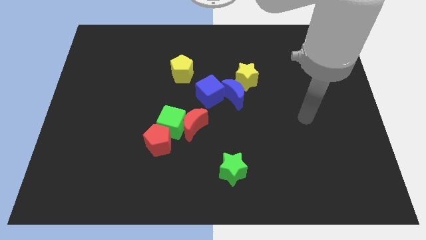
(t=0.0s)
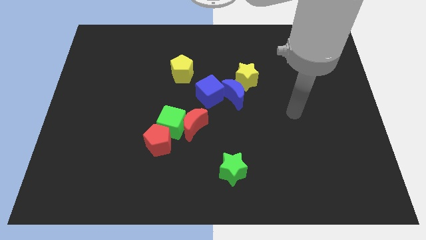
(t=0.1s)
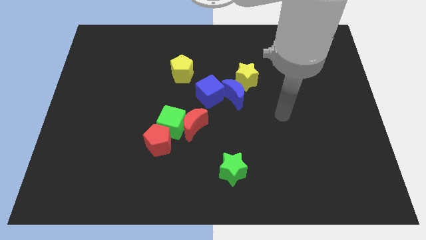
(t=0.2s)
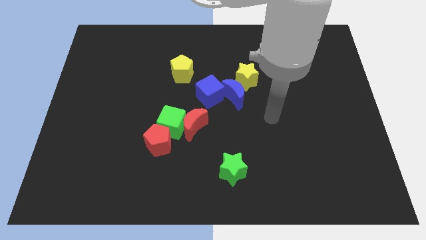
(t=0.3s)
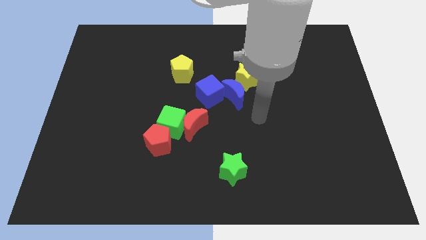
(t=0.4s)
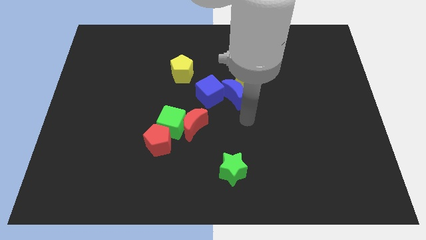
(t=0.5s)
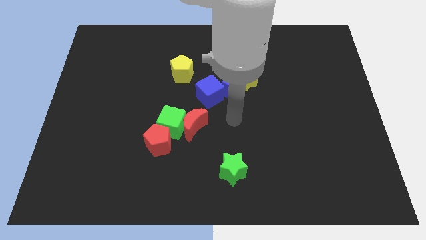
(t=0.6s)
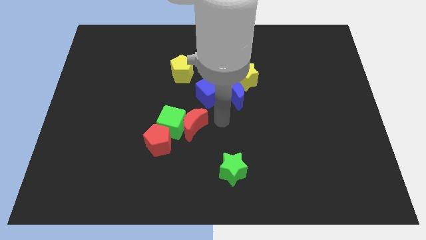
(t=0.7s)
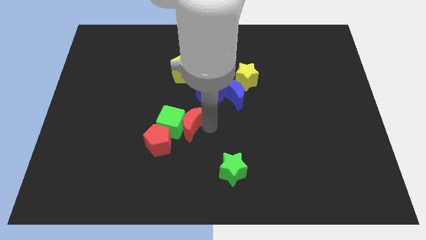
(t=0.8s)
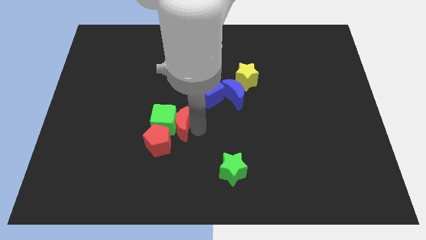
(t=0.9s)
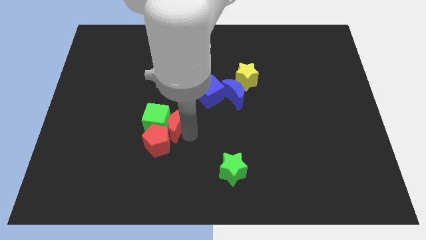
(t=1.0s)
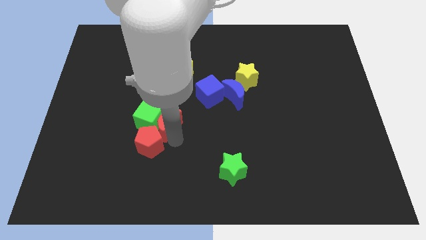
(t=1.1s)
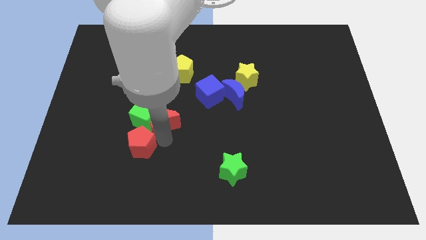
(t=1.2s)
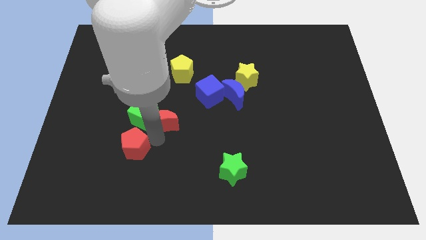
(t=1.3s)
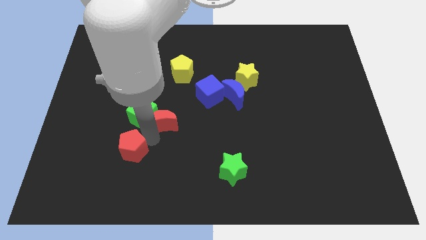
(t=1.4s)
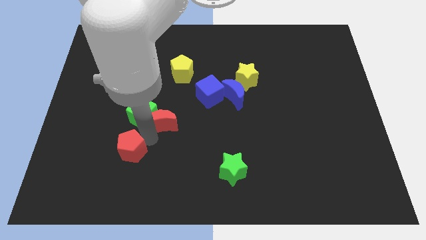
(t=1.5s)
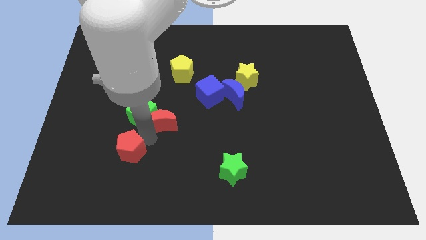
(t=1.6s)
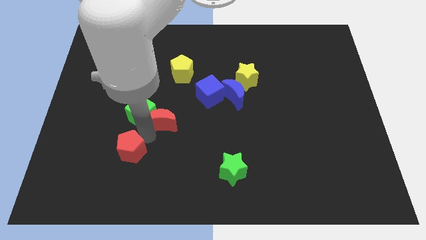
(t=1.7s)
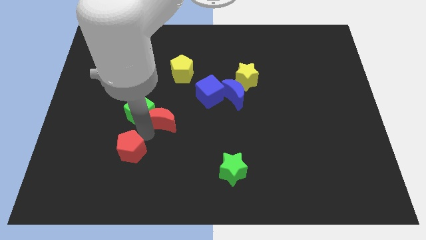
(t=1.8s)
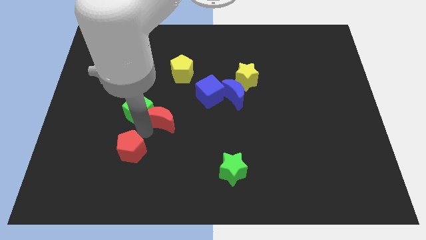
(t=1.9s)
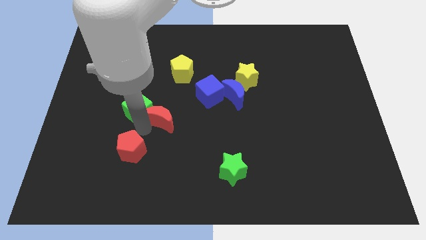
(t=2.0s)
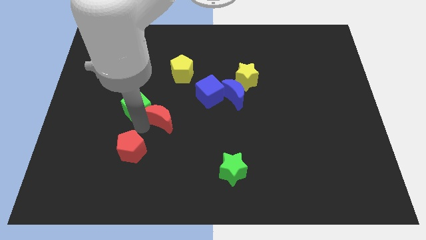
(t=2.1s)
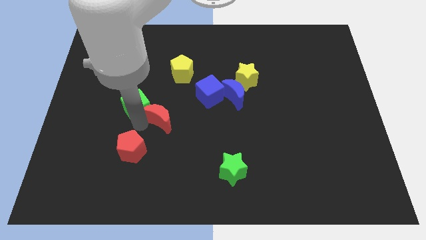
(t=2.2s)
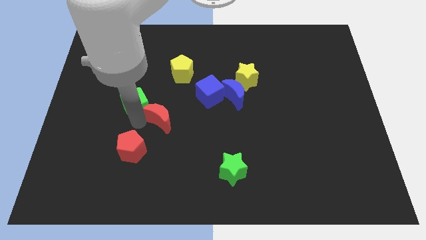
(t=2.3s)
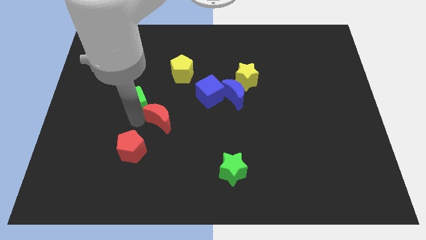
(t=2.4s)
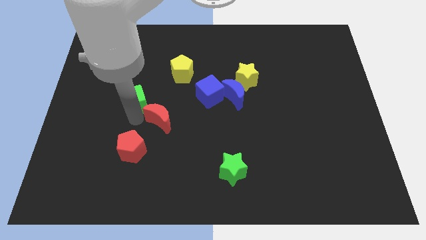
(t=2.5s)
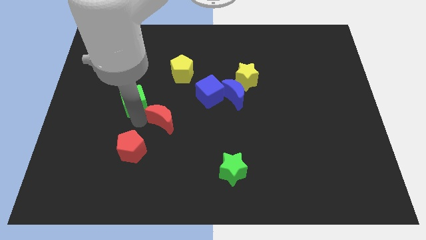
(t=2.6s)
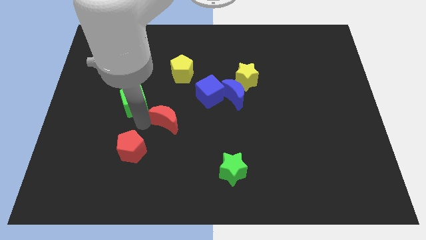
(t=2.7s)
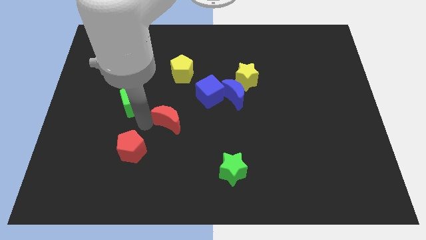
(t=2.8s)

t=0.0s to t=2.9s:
pull the green cube apart from the red moon and red pentagon

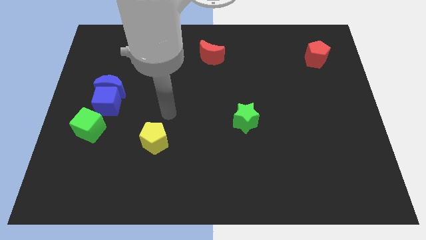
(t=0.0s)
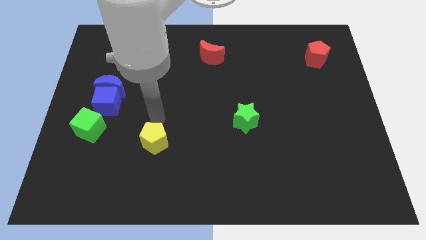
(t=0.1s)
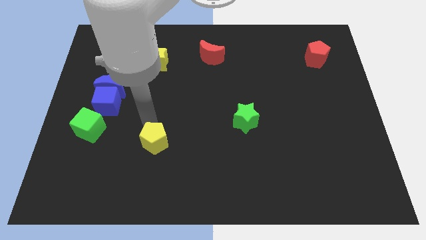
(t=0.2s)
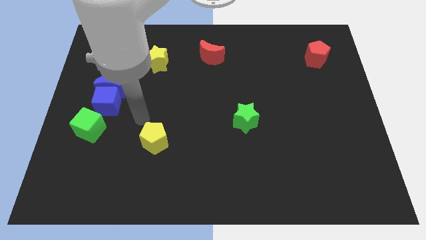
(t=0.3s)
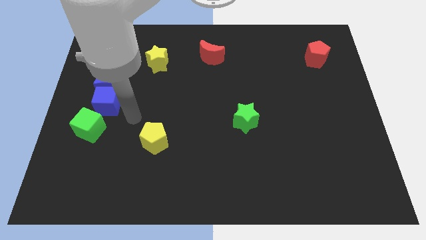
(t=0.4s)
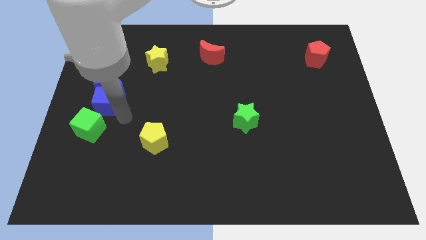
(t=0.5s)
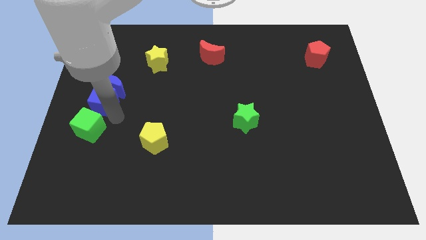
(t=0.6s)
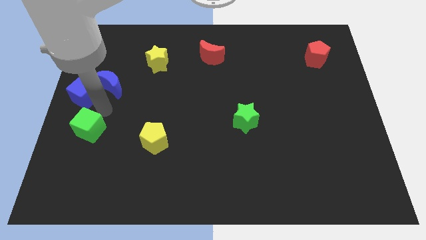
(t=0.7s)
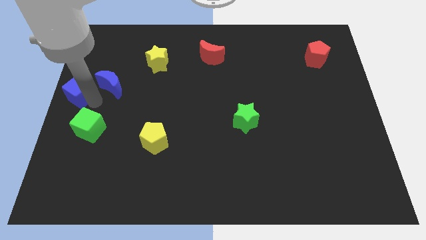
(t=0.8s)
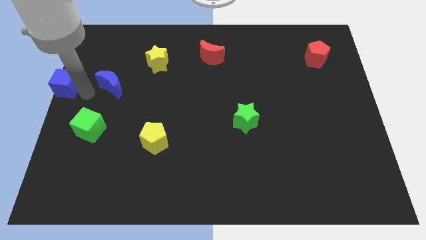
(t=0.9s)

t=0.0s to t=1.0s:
separate the blue moon from the blue cube

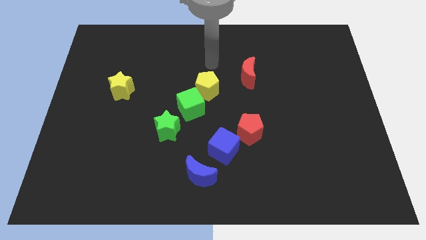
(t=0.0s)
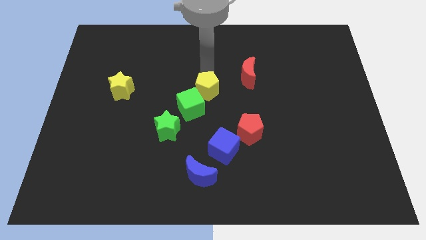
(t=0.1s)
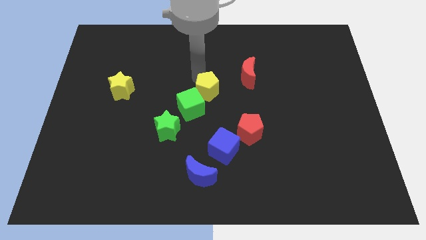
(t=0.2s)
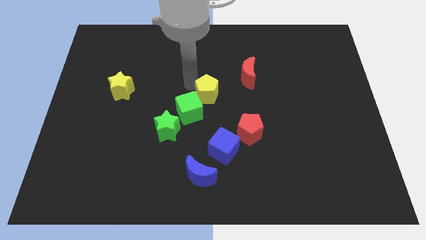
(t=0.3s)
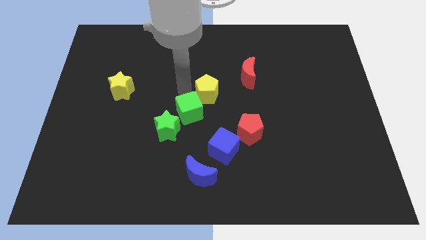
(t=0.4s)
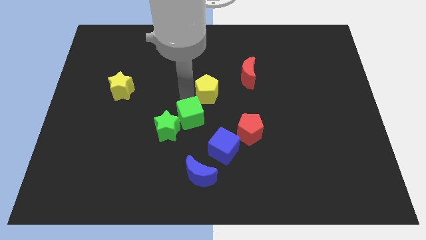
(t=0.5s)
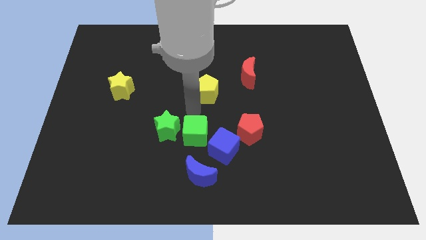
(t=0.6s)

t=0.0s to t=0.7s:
move the yellow pentagon away from the green cube

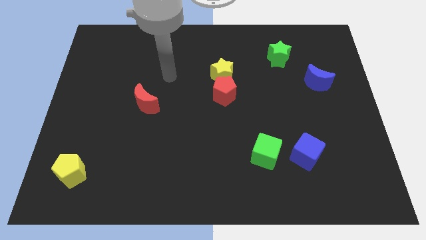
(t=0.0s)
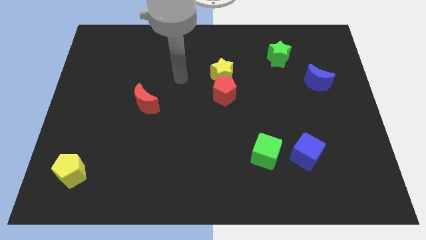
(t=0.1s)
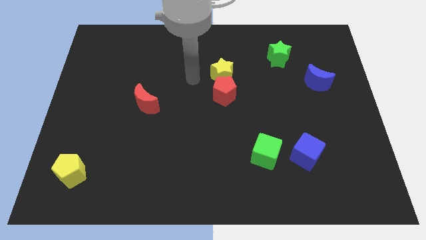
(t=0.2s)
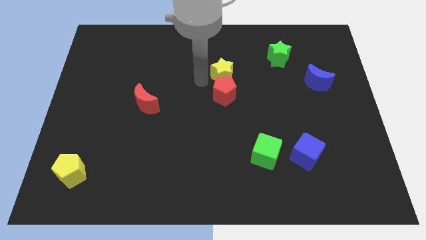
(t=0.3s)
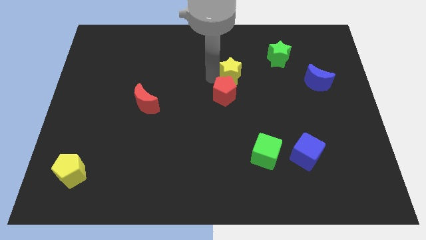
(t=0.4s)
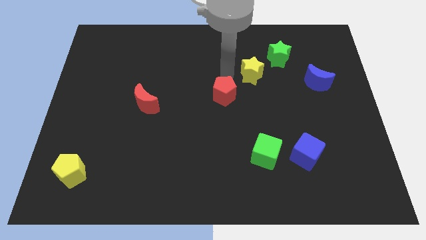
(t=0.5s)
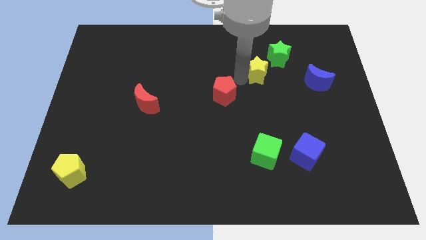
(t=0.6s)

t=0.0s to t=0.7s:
separate the red pentagon from the yellow star

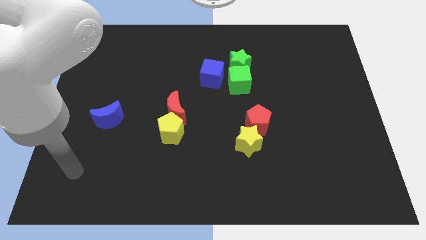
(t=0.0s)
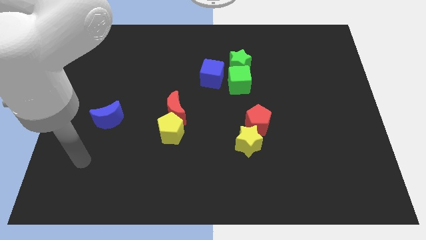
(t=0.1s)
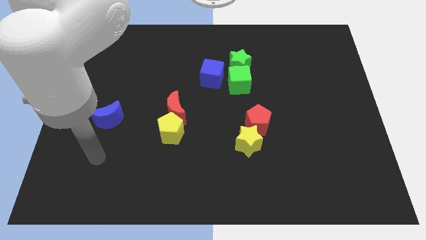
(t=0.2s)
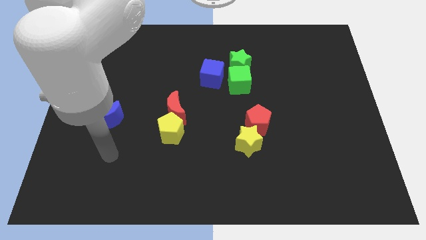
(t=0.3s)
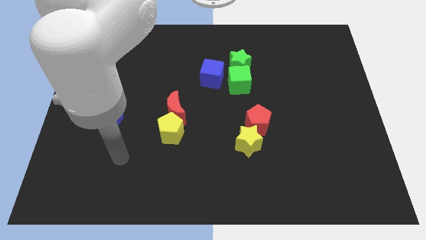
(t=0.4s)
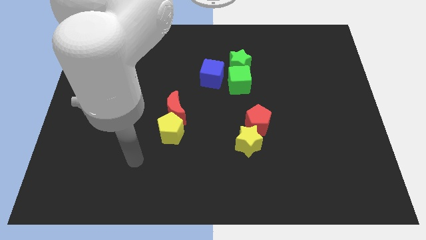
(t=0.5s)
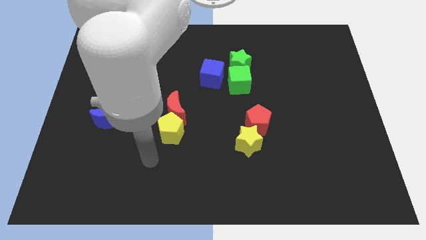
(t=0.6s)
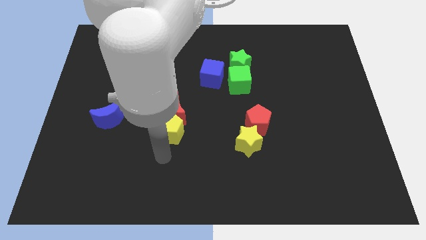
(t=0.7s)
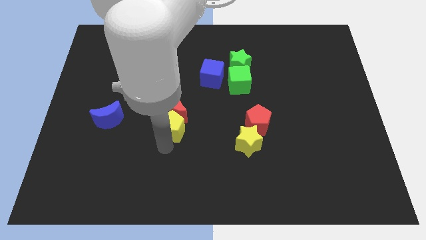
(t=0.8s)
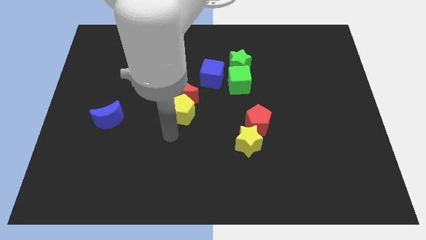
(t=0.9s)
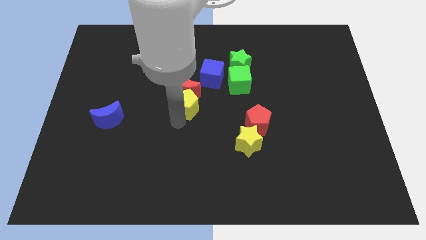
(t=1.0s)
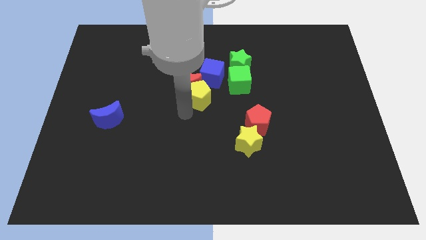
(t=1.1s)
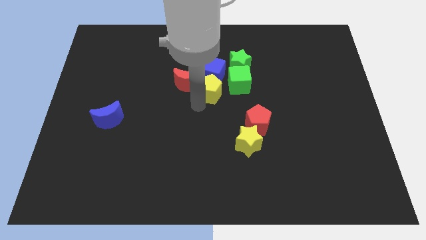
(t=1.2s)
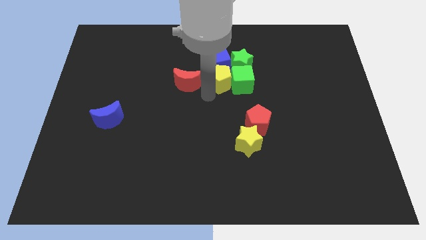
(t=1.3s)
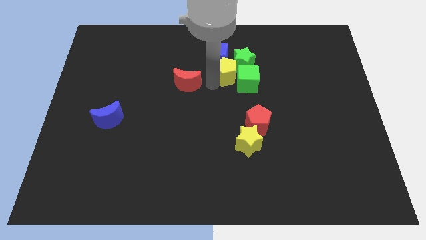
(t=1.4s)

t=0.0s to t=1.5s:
move the red moon away from the yellow pentagon

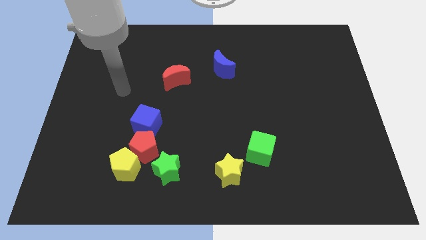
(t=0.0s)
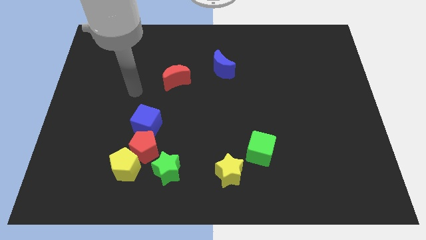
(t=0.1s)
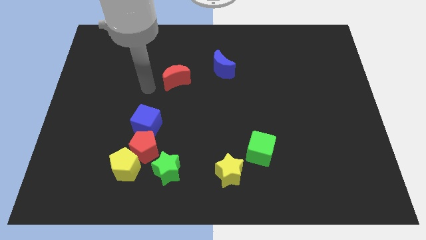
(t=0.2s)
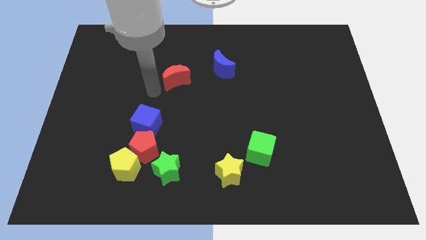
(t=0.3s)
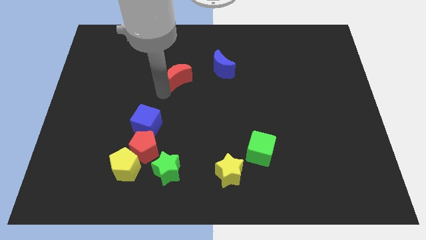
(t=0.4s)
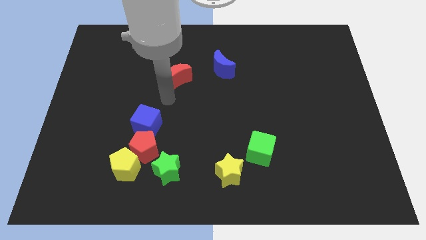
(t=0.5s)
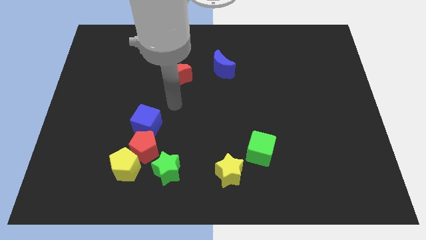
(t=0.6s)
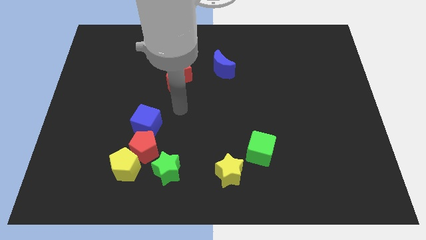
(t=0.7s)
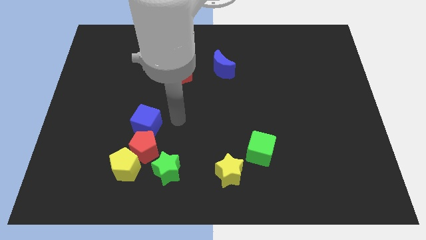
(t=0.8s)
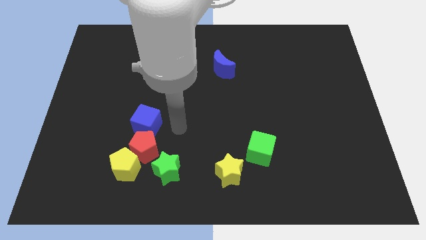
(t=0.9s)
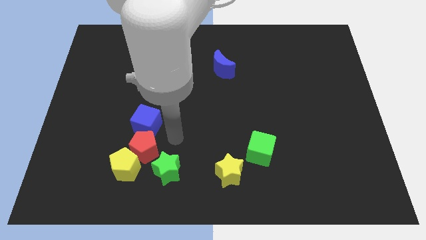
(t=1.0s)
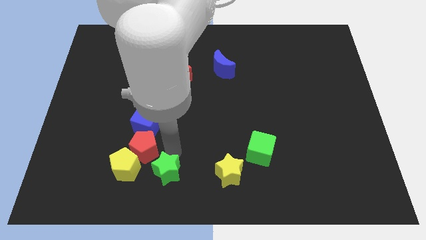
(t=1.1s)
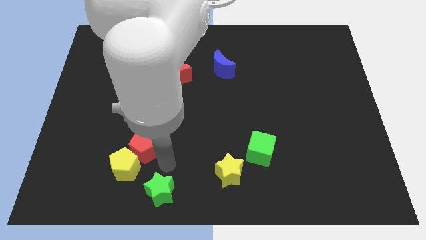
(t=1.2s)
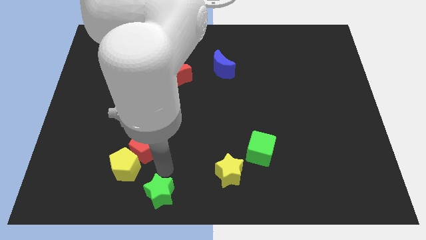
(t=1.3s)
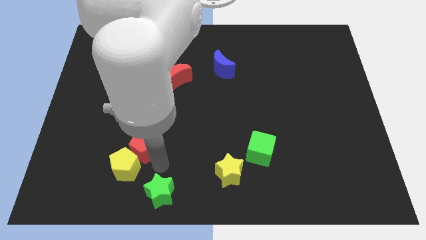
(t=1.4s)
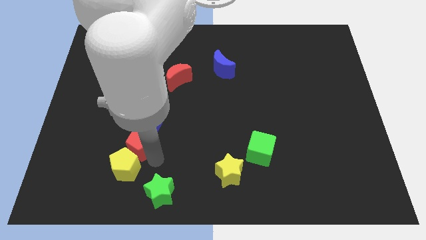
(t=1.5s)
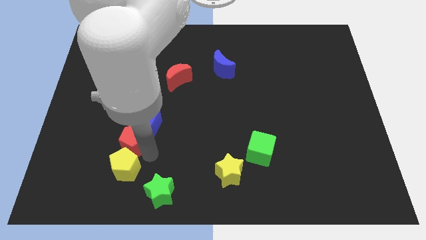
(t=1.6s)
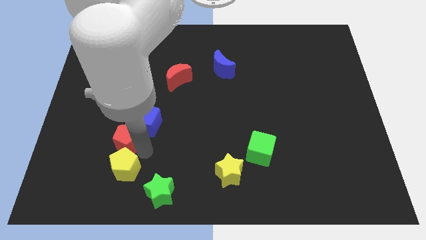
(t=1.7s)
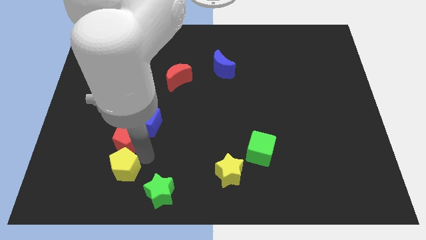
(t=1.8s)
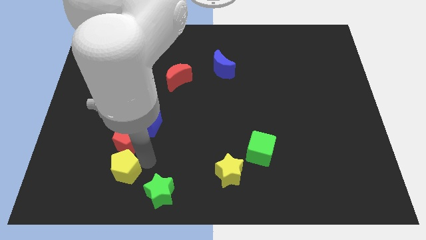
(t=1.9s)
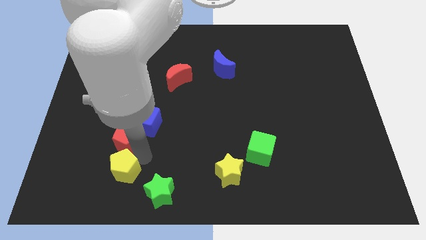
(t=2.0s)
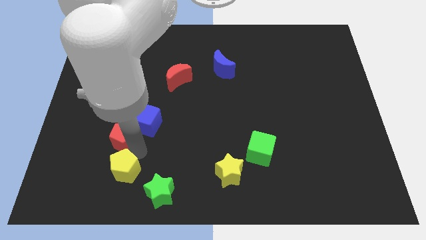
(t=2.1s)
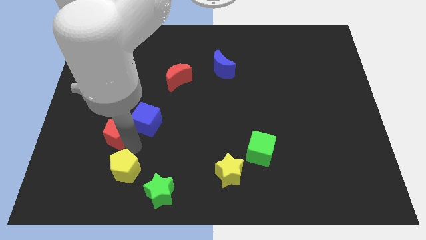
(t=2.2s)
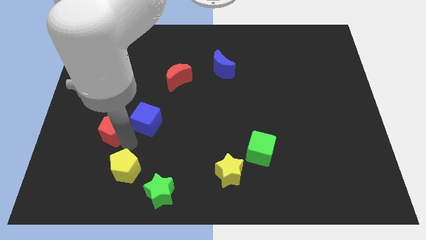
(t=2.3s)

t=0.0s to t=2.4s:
move the red pentagon away from the group
